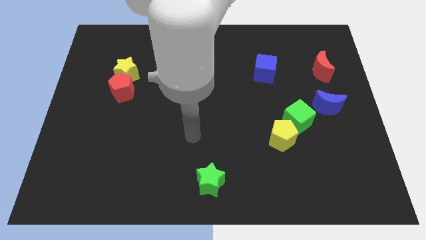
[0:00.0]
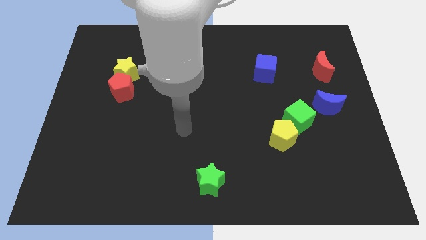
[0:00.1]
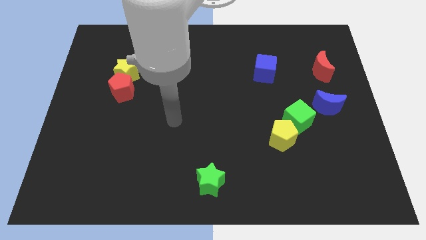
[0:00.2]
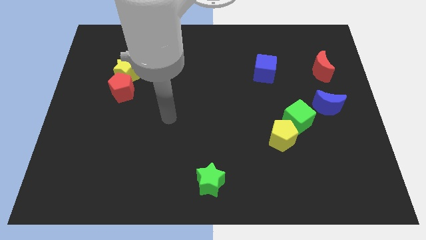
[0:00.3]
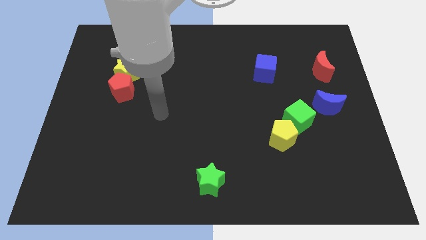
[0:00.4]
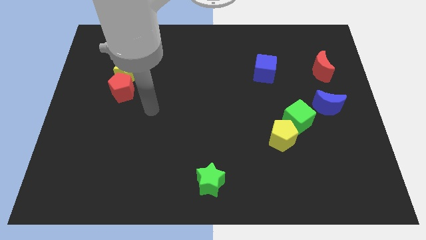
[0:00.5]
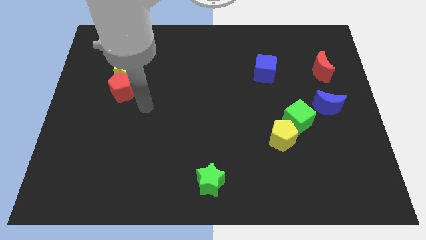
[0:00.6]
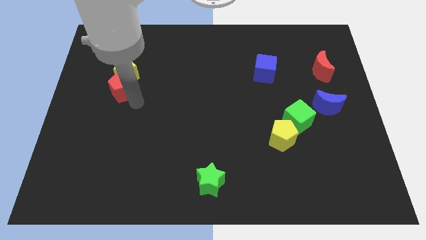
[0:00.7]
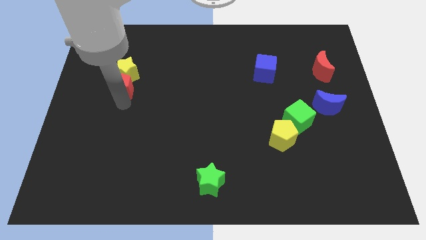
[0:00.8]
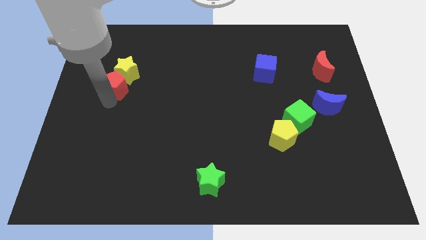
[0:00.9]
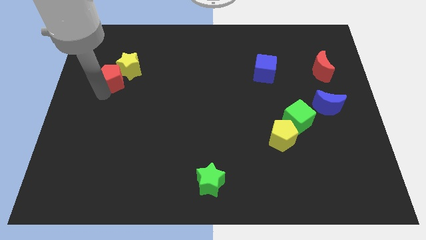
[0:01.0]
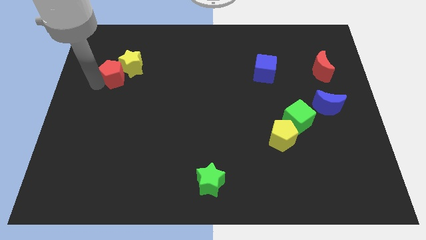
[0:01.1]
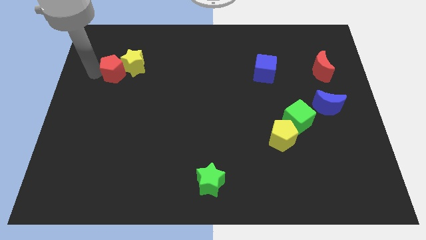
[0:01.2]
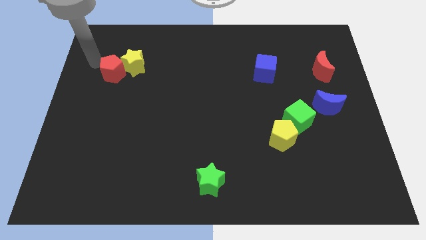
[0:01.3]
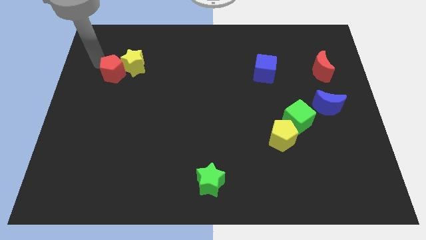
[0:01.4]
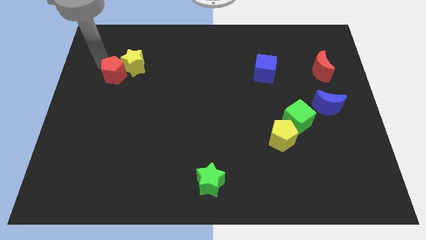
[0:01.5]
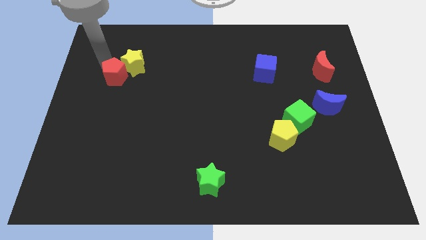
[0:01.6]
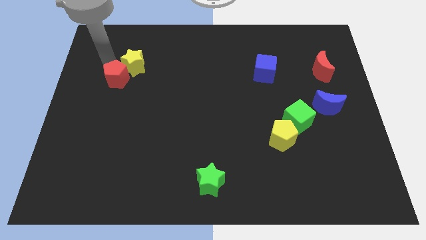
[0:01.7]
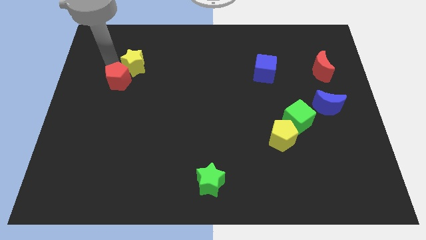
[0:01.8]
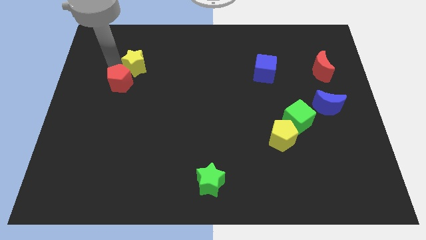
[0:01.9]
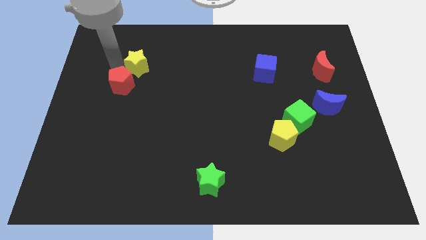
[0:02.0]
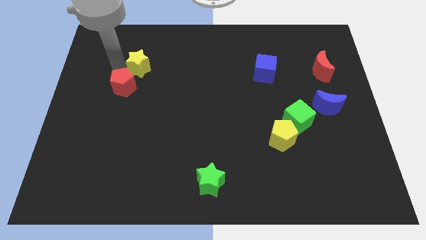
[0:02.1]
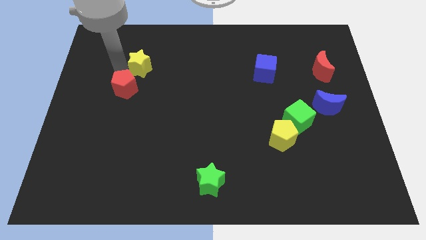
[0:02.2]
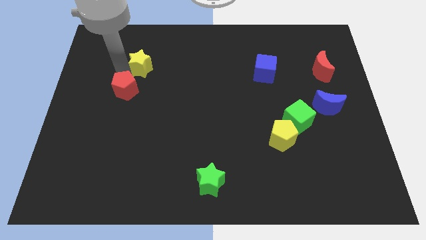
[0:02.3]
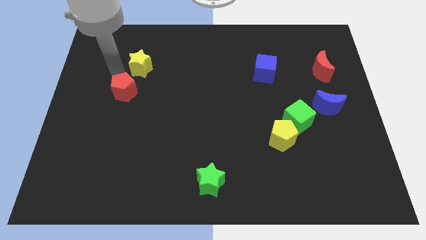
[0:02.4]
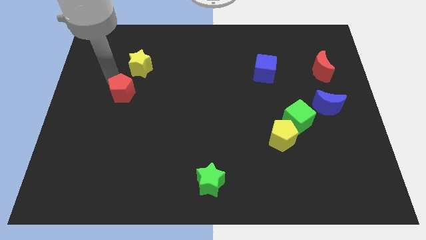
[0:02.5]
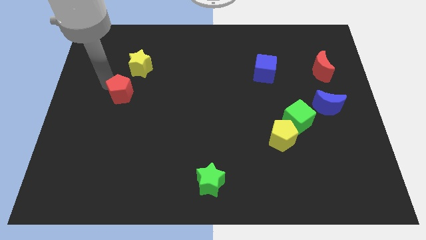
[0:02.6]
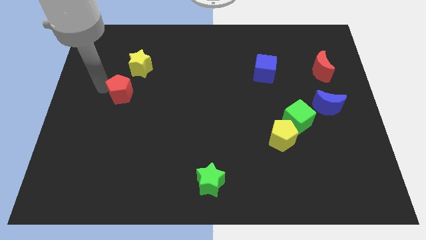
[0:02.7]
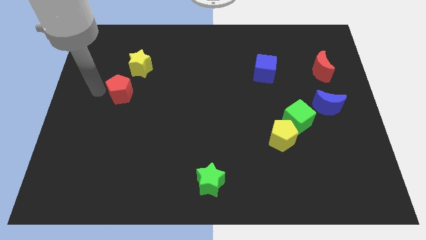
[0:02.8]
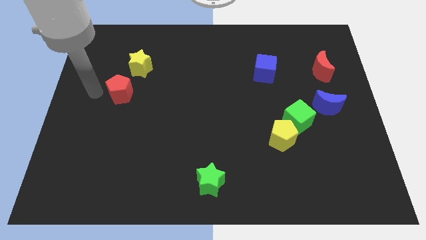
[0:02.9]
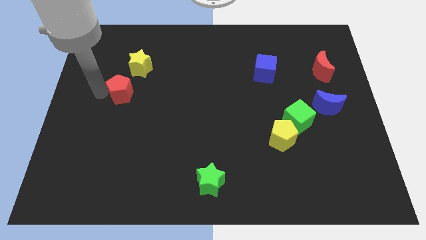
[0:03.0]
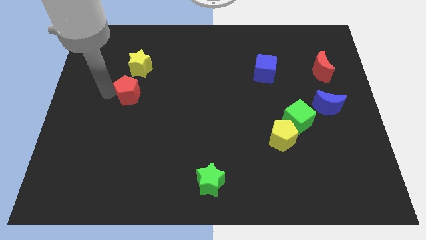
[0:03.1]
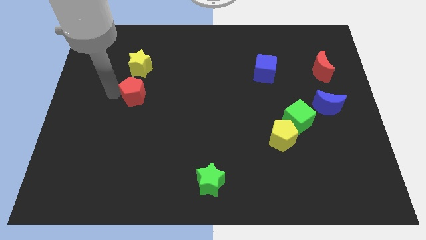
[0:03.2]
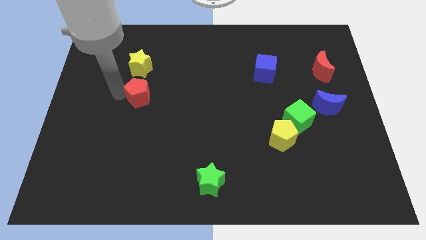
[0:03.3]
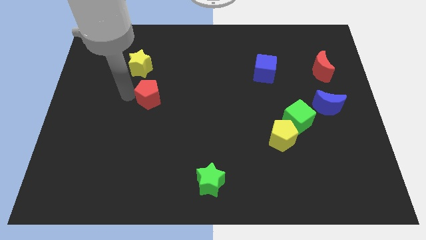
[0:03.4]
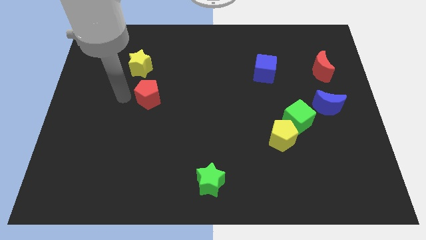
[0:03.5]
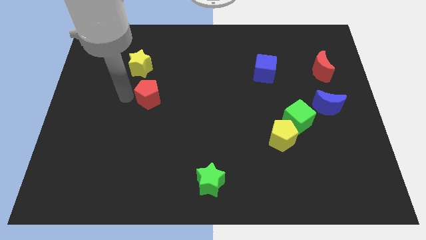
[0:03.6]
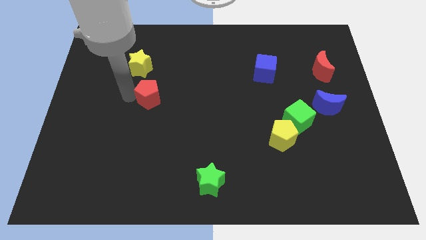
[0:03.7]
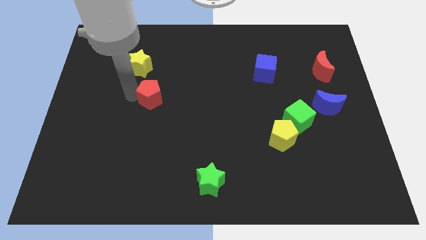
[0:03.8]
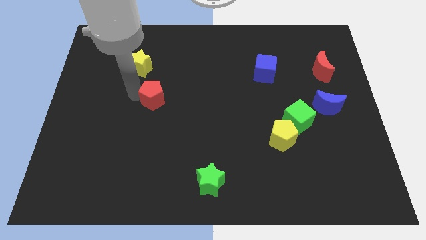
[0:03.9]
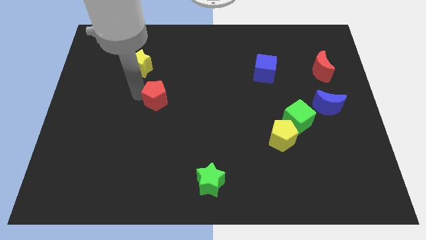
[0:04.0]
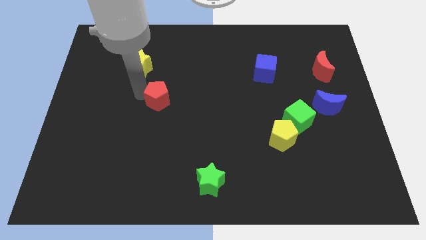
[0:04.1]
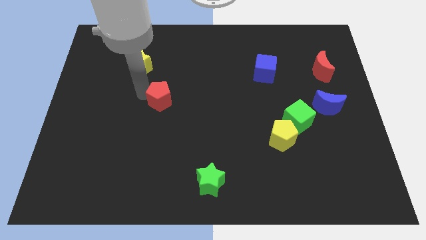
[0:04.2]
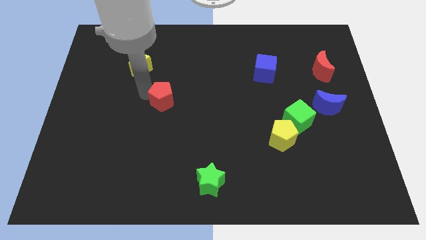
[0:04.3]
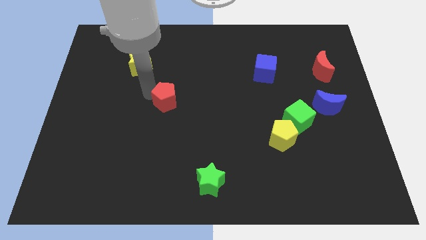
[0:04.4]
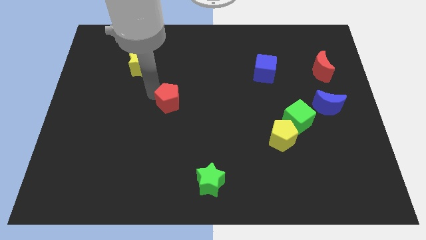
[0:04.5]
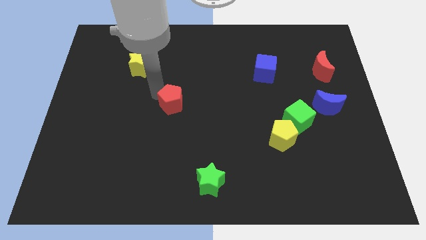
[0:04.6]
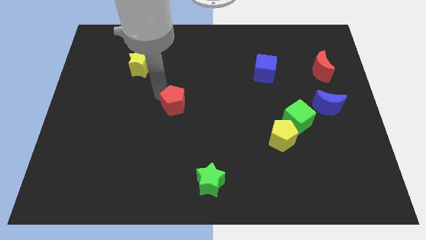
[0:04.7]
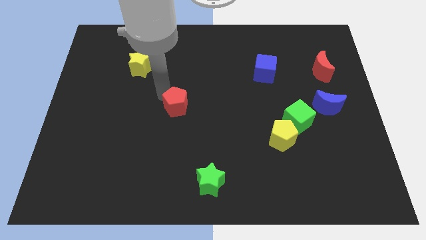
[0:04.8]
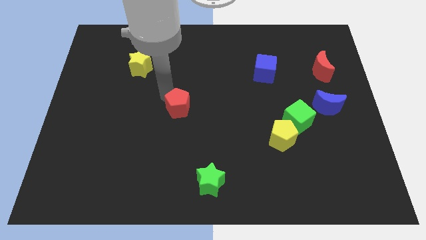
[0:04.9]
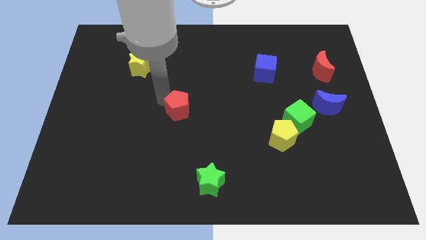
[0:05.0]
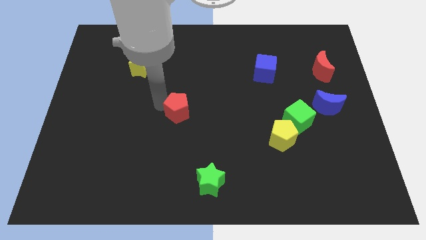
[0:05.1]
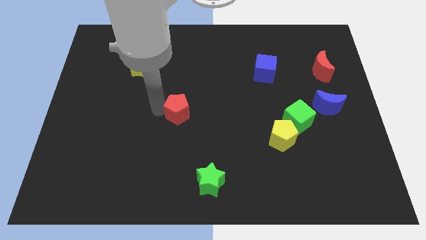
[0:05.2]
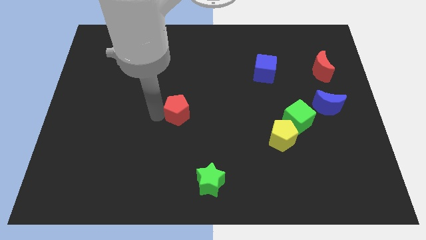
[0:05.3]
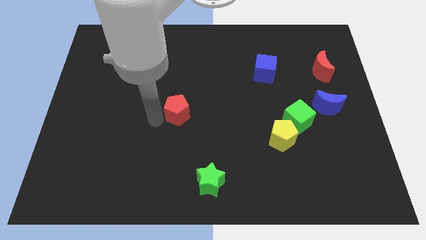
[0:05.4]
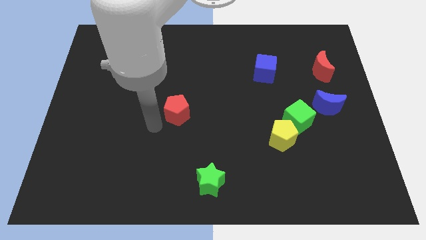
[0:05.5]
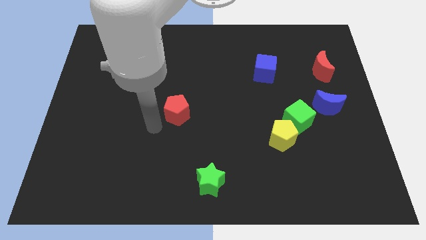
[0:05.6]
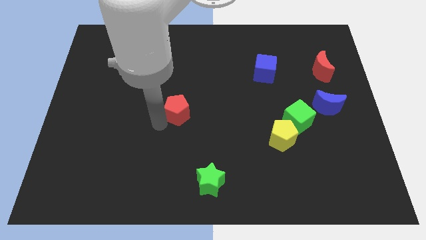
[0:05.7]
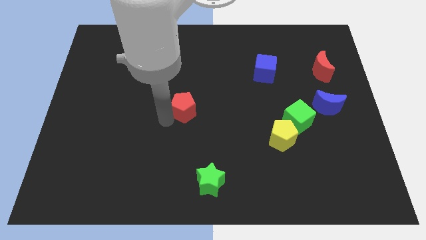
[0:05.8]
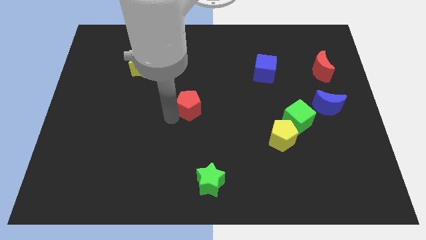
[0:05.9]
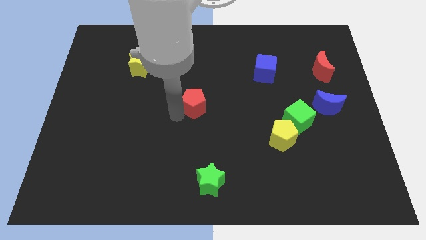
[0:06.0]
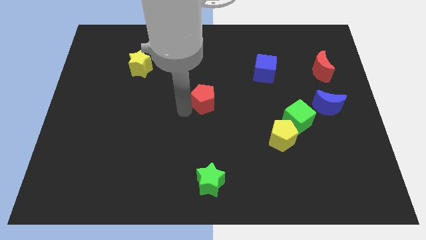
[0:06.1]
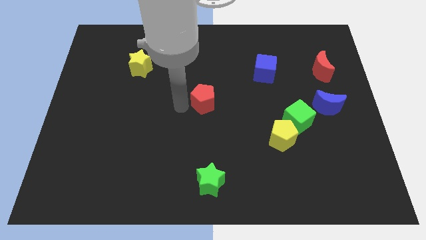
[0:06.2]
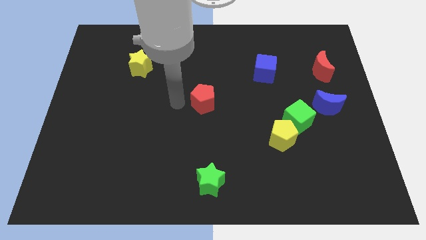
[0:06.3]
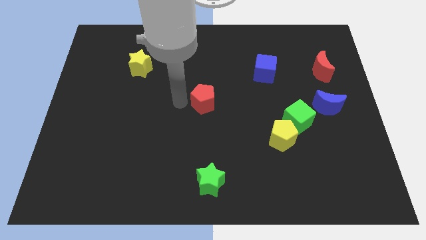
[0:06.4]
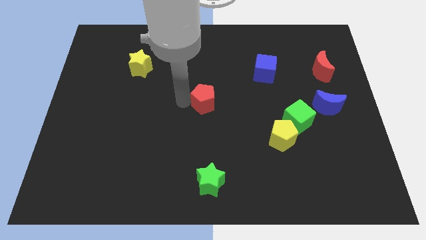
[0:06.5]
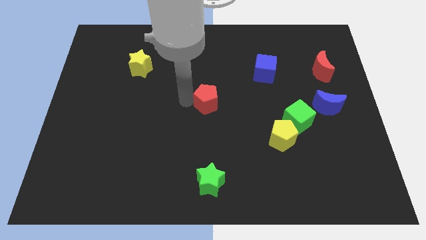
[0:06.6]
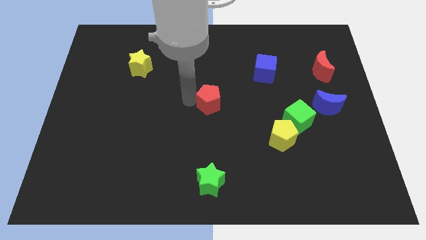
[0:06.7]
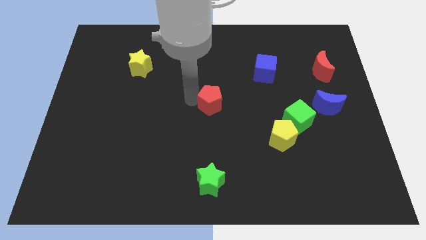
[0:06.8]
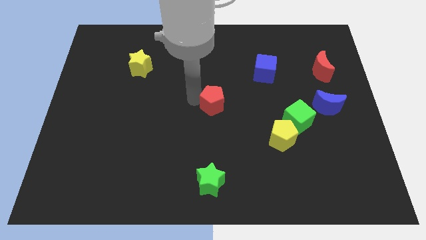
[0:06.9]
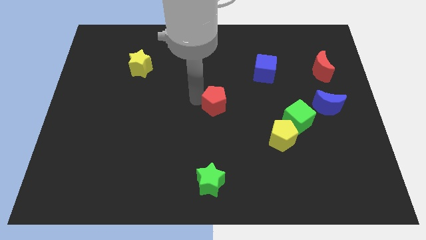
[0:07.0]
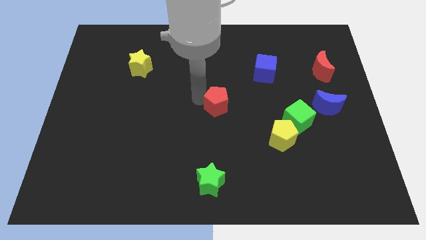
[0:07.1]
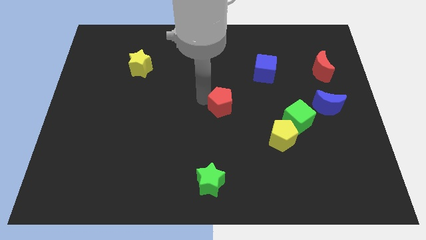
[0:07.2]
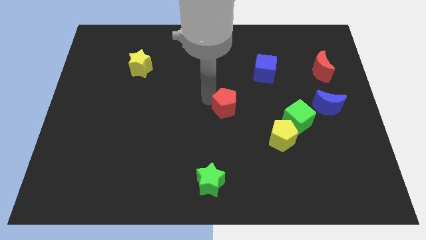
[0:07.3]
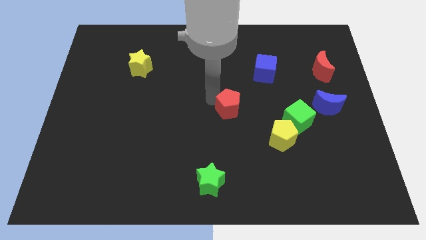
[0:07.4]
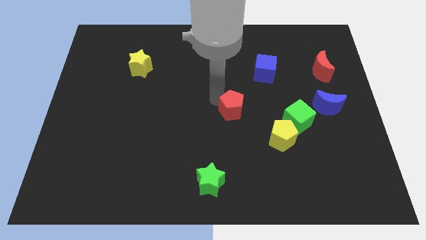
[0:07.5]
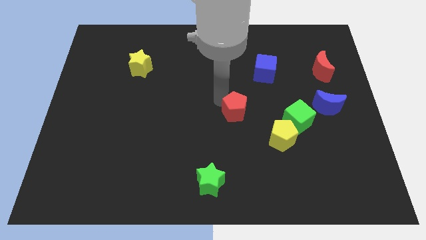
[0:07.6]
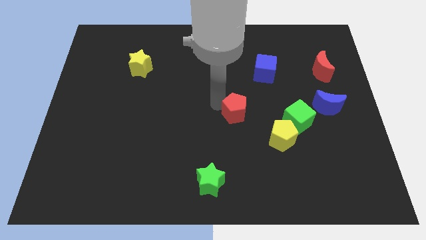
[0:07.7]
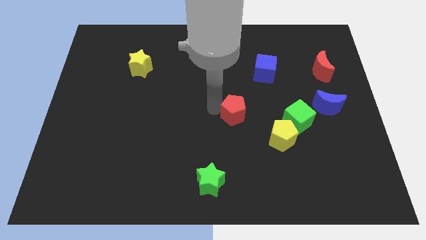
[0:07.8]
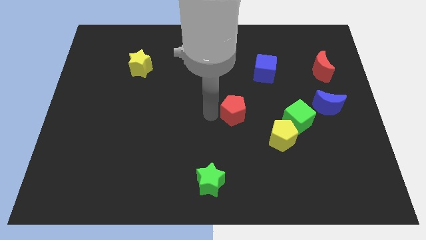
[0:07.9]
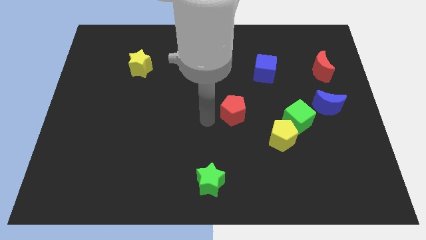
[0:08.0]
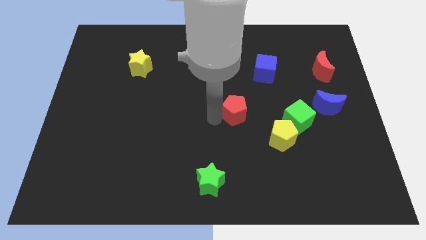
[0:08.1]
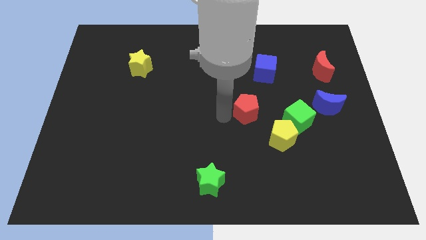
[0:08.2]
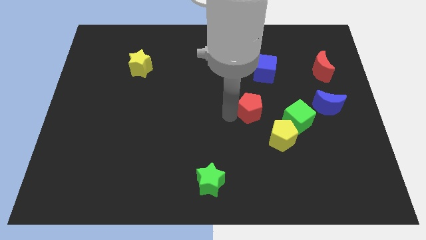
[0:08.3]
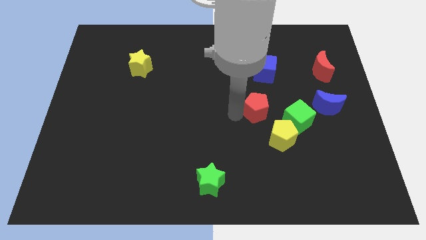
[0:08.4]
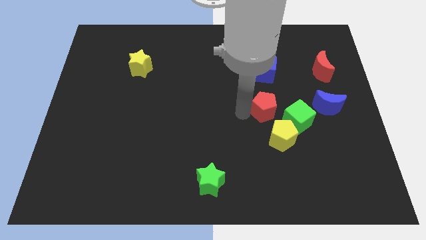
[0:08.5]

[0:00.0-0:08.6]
move the red pentagon left of the blue moon
